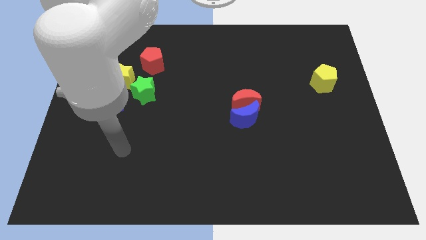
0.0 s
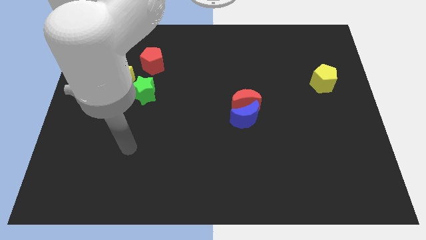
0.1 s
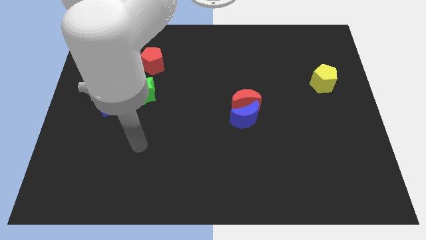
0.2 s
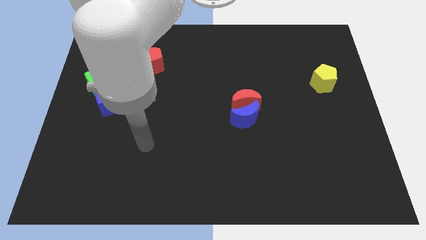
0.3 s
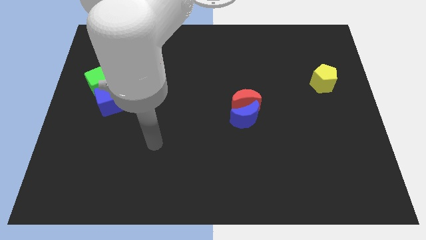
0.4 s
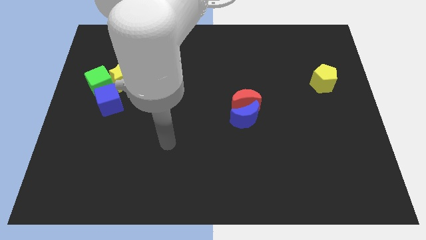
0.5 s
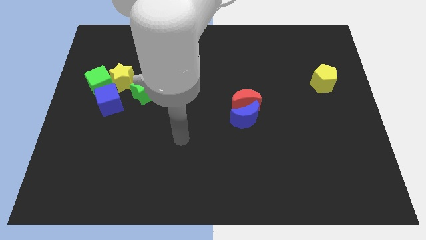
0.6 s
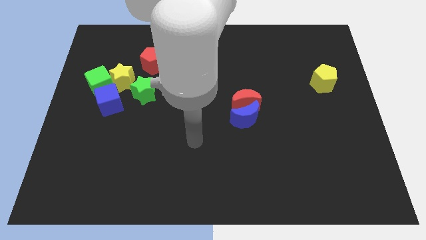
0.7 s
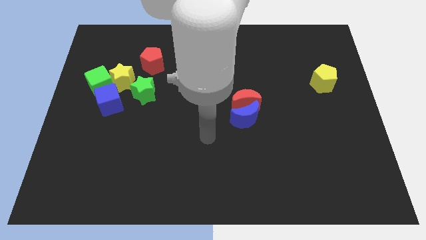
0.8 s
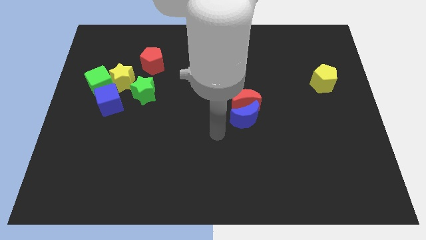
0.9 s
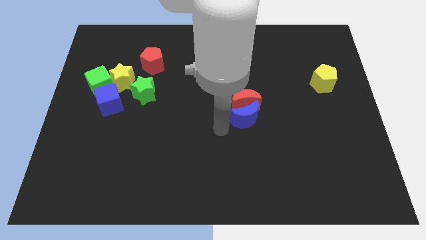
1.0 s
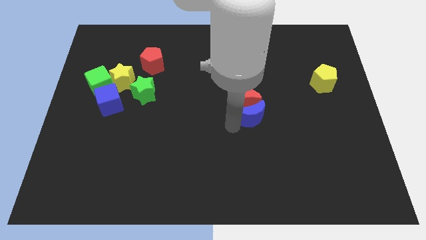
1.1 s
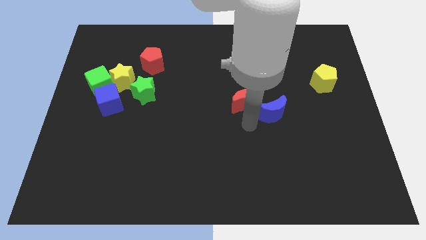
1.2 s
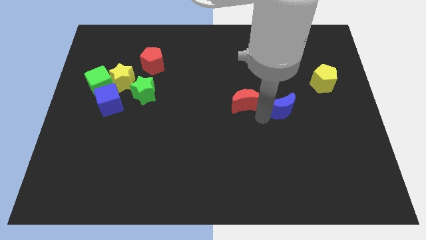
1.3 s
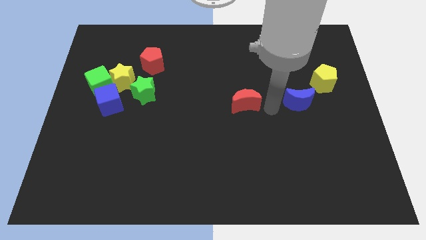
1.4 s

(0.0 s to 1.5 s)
move the red moon away from the blue moon

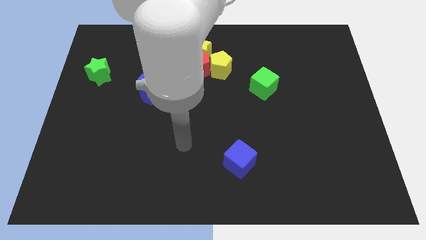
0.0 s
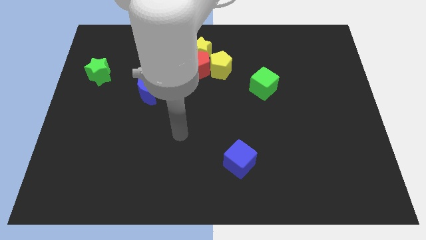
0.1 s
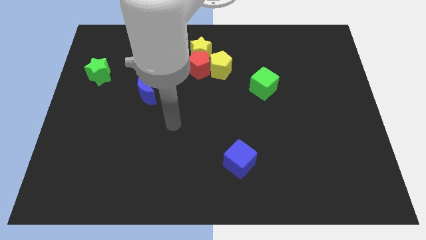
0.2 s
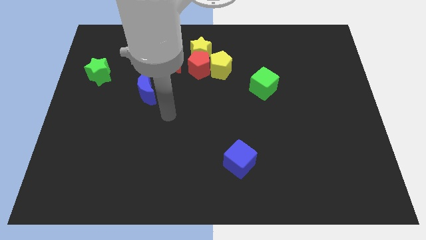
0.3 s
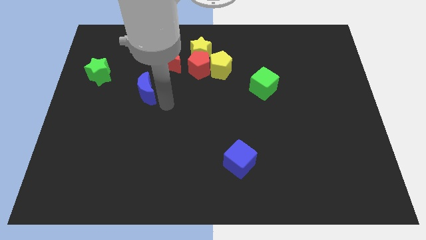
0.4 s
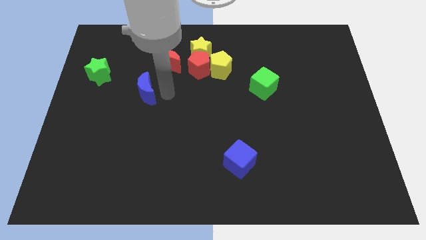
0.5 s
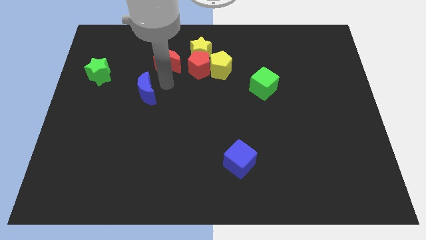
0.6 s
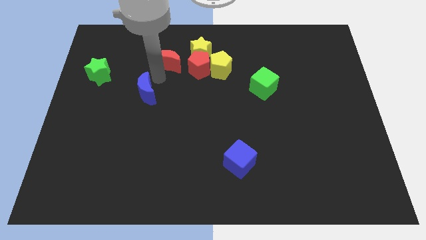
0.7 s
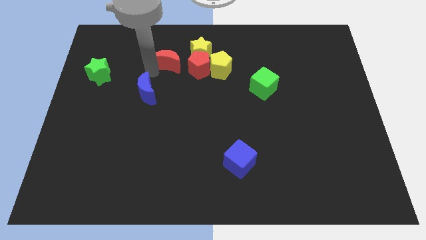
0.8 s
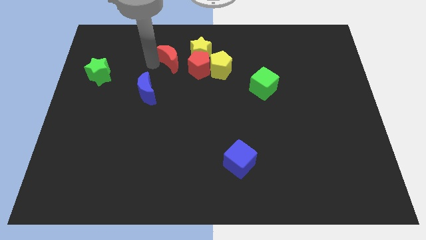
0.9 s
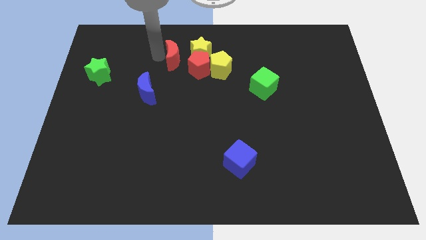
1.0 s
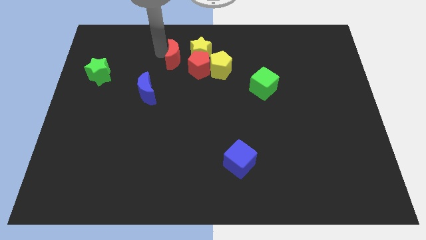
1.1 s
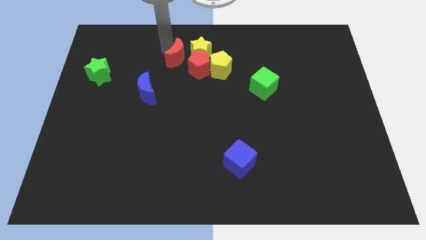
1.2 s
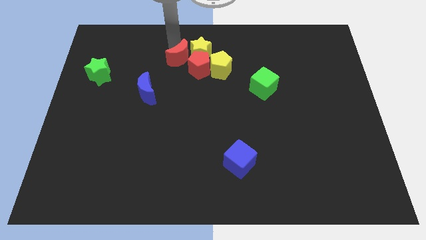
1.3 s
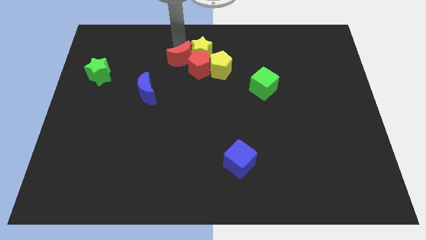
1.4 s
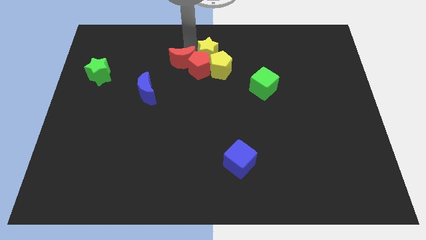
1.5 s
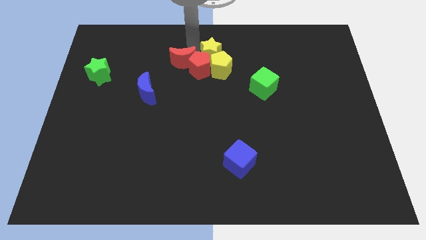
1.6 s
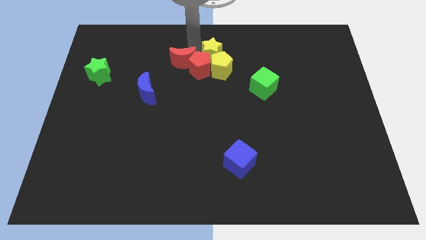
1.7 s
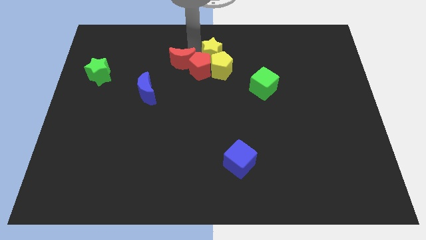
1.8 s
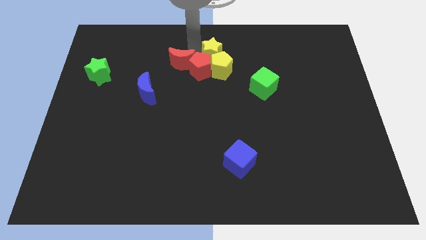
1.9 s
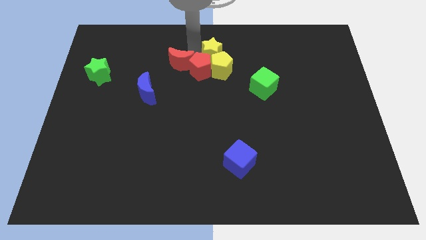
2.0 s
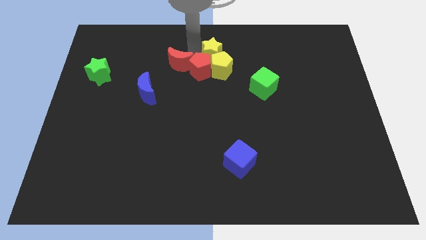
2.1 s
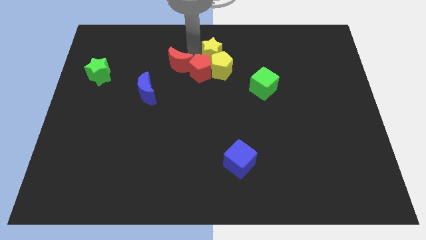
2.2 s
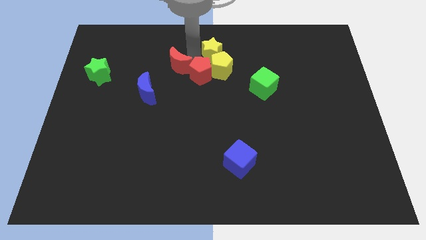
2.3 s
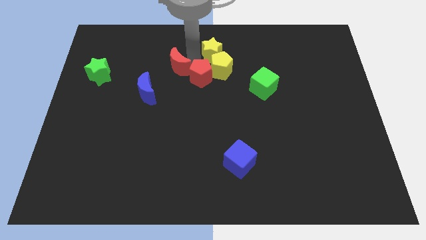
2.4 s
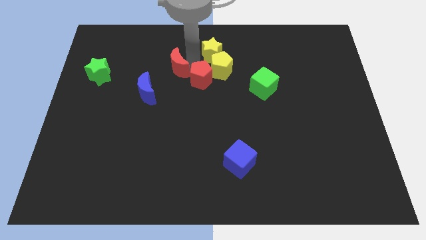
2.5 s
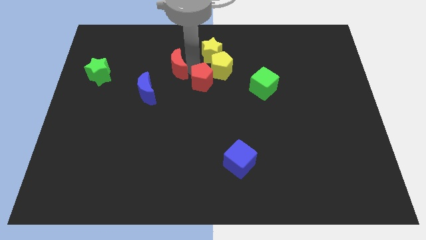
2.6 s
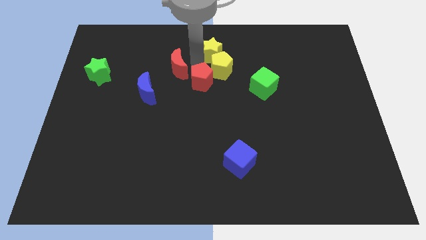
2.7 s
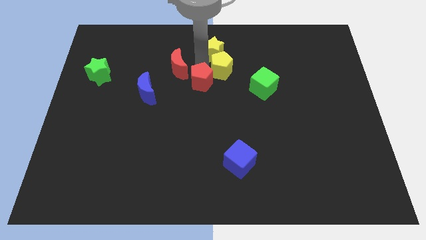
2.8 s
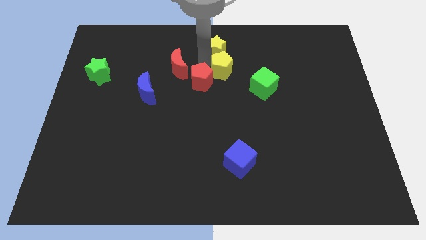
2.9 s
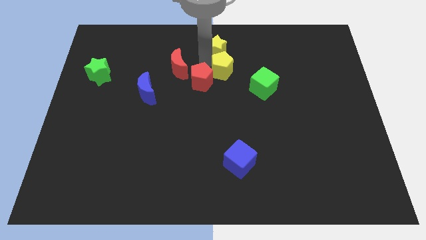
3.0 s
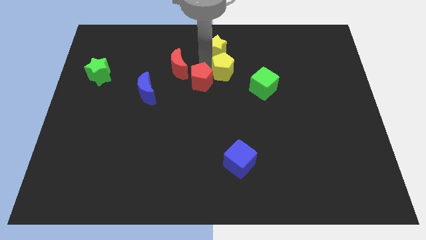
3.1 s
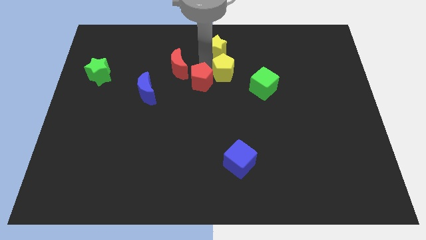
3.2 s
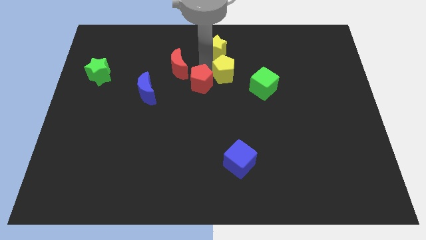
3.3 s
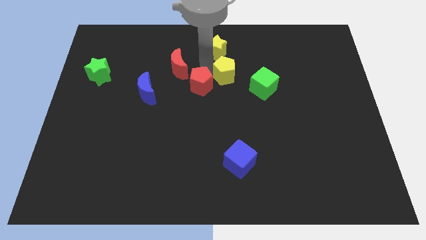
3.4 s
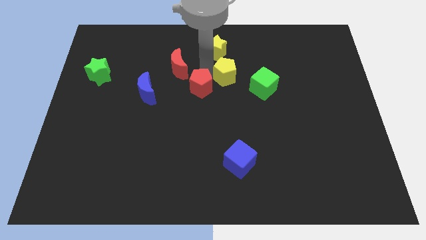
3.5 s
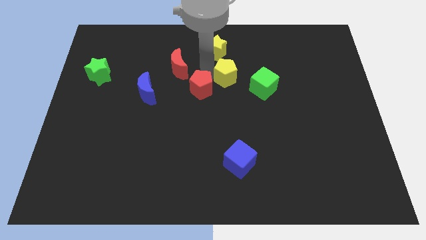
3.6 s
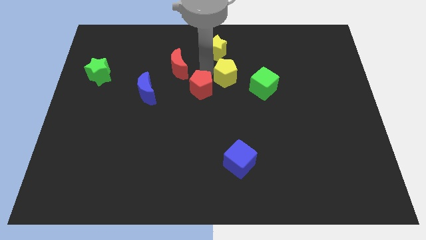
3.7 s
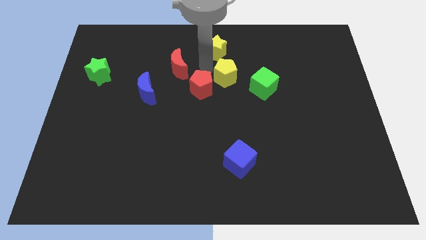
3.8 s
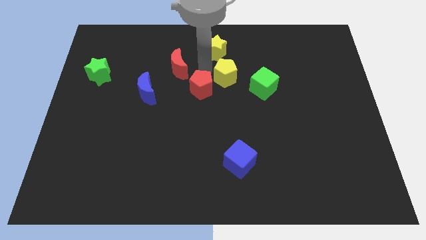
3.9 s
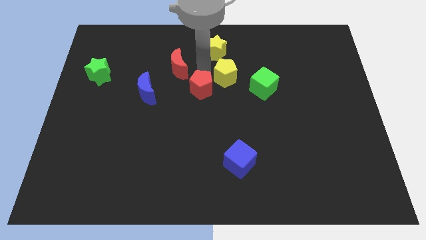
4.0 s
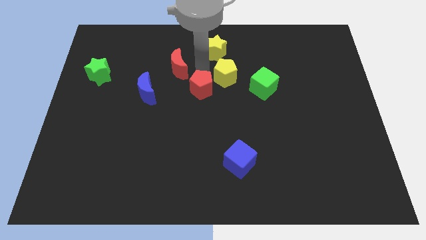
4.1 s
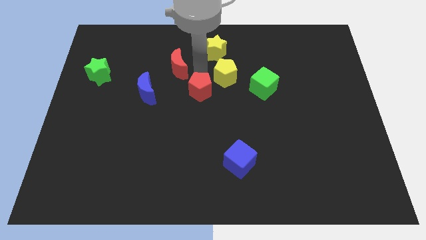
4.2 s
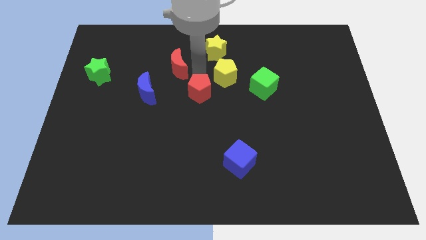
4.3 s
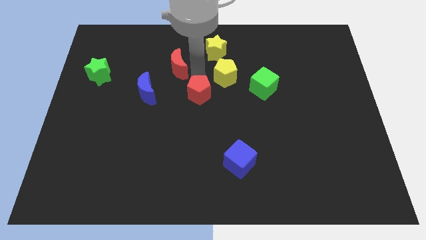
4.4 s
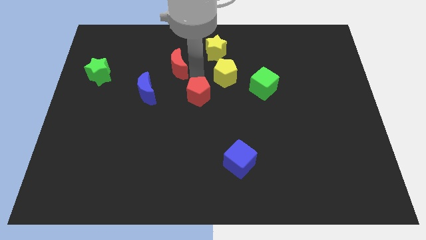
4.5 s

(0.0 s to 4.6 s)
pull the red pentagon apart from the group

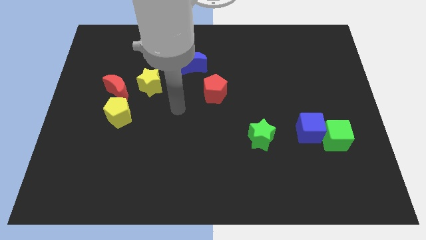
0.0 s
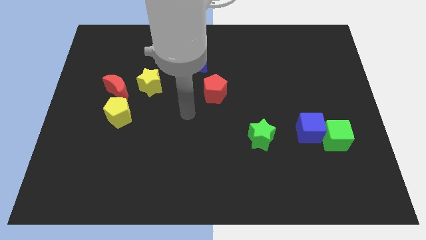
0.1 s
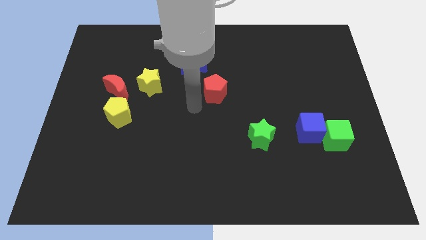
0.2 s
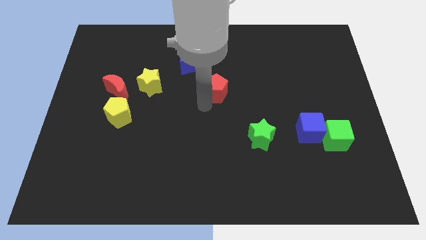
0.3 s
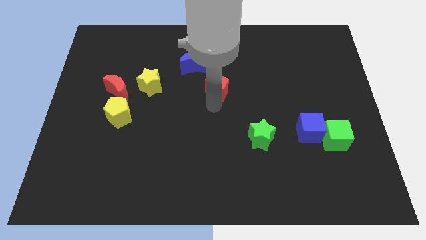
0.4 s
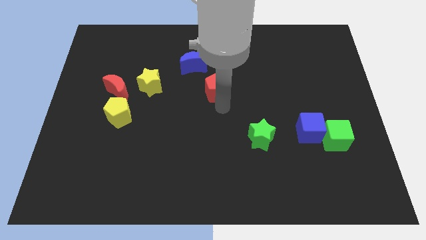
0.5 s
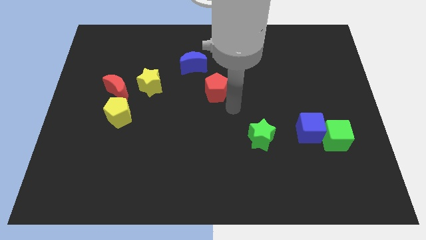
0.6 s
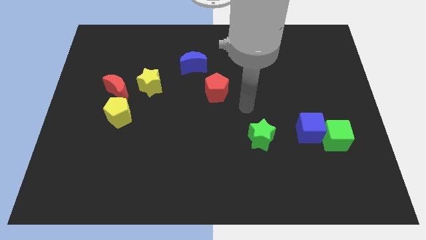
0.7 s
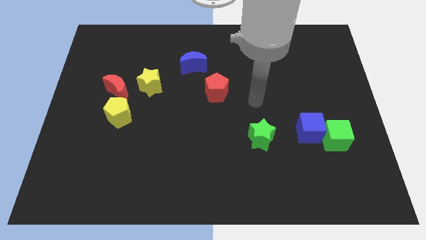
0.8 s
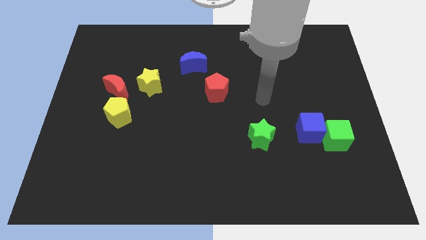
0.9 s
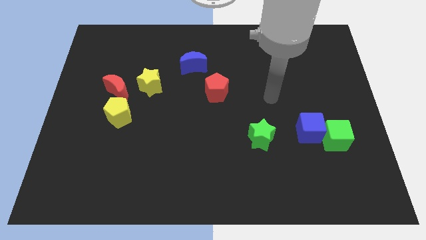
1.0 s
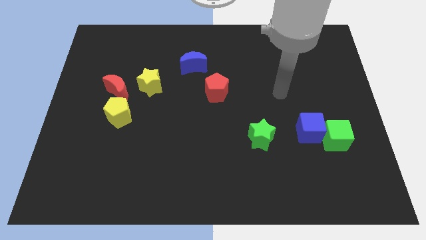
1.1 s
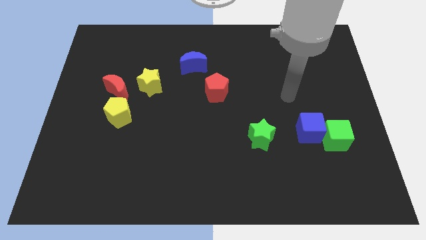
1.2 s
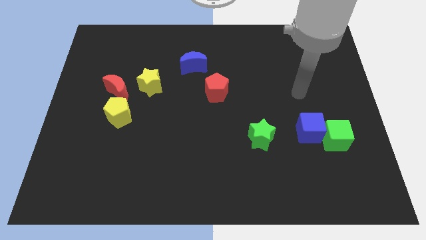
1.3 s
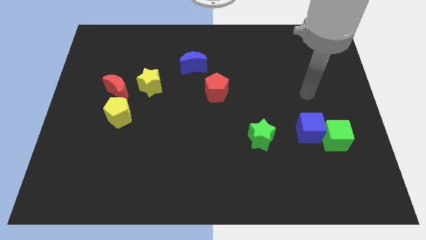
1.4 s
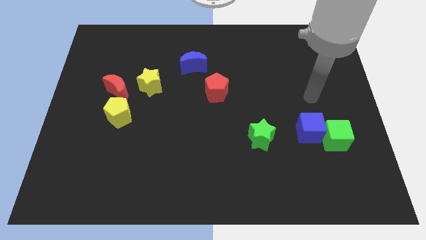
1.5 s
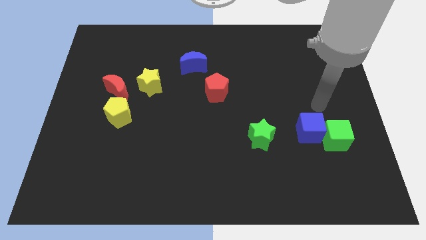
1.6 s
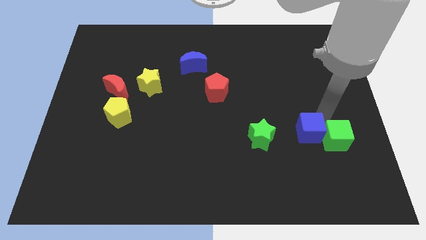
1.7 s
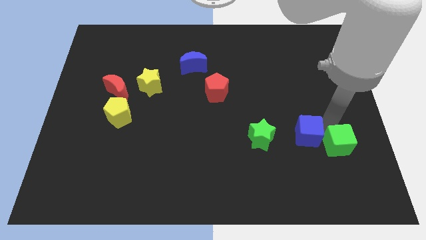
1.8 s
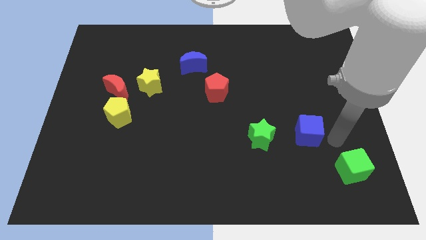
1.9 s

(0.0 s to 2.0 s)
move the blue cube away from the green cube

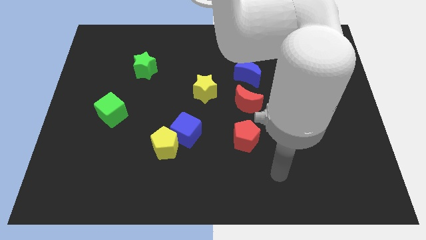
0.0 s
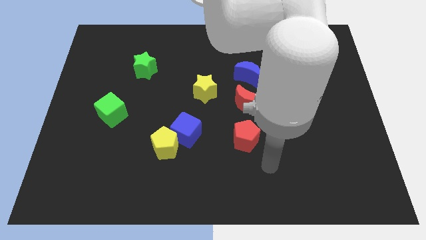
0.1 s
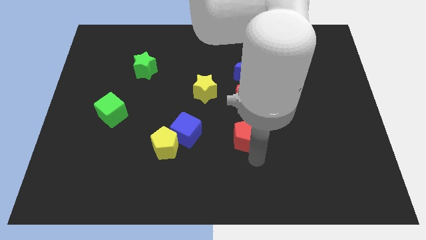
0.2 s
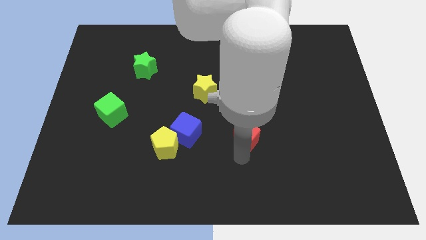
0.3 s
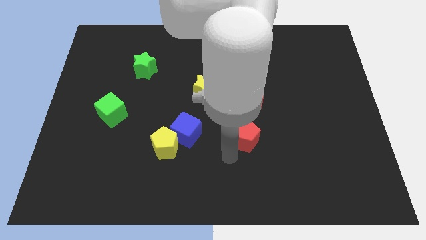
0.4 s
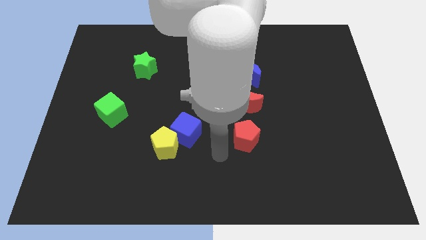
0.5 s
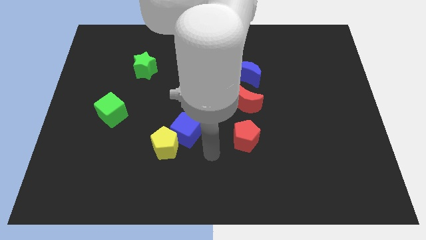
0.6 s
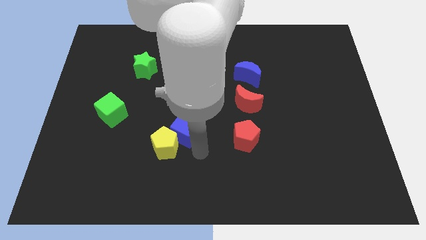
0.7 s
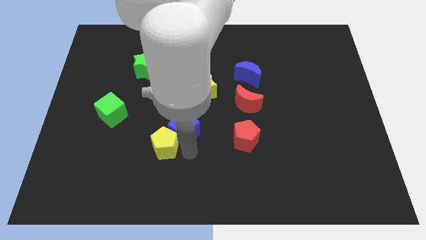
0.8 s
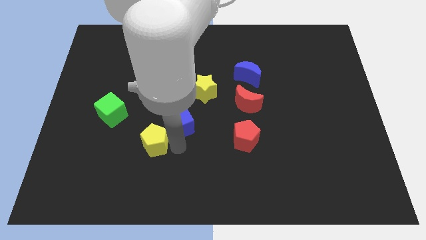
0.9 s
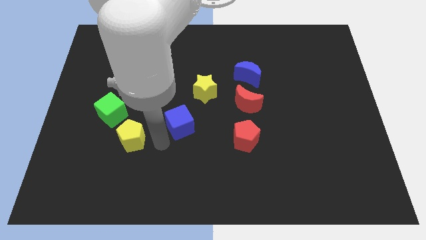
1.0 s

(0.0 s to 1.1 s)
separate the blue cube from the yellow pentagon

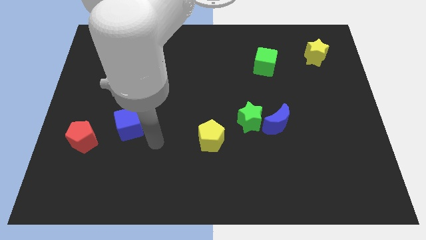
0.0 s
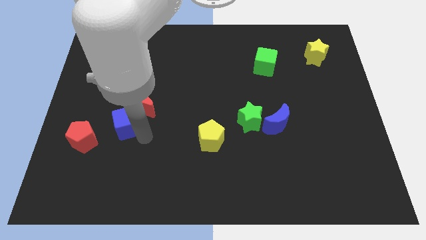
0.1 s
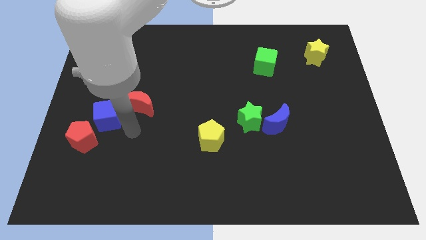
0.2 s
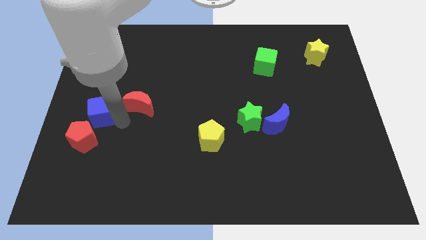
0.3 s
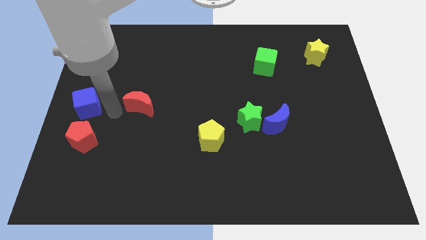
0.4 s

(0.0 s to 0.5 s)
move the red moon away from the blue cube
